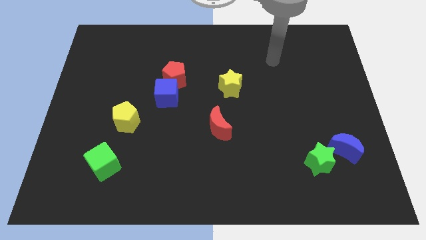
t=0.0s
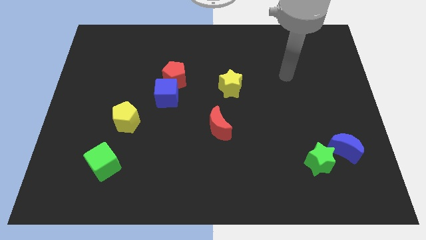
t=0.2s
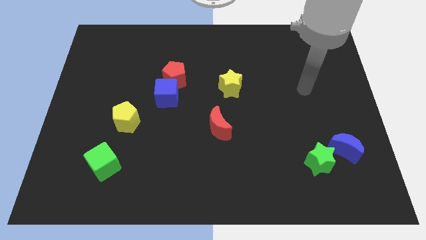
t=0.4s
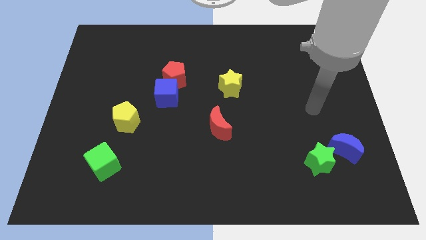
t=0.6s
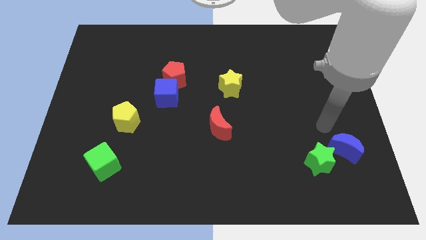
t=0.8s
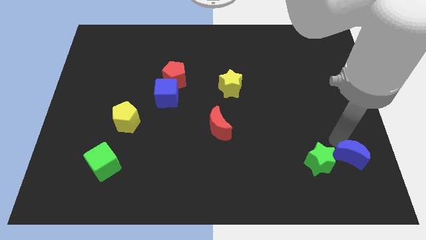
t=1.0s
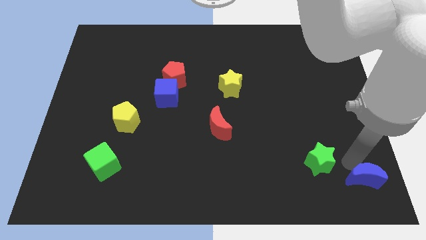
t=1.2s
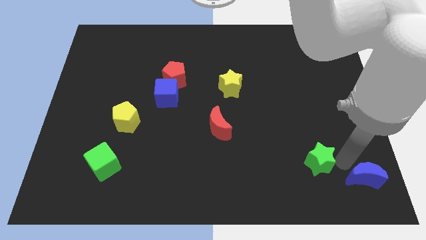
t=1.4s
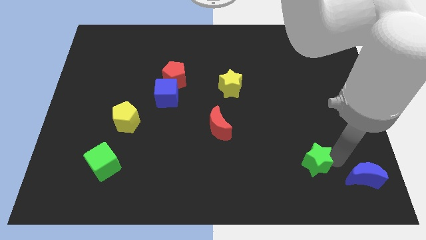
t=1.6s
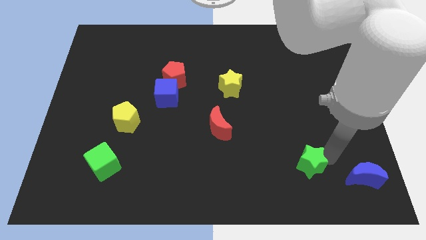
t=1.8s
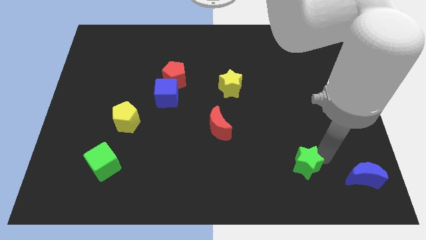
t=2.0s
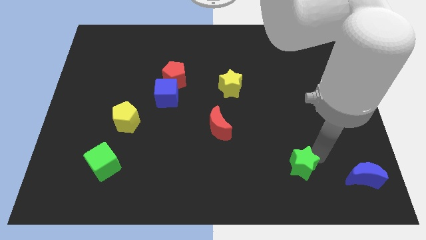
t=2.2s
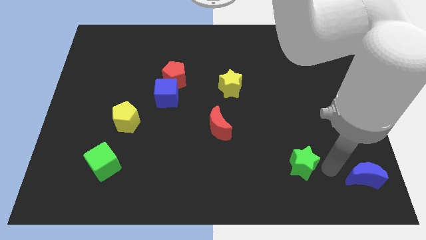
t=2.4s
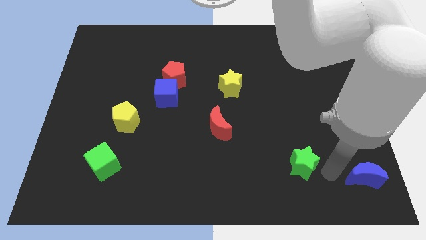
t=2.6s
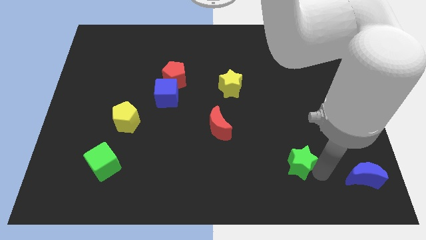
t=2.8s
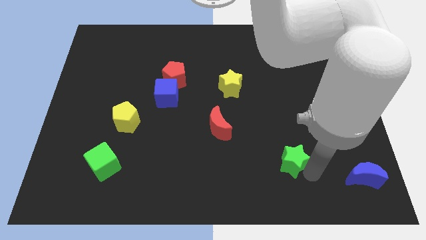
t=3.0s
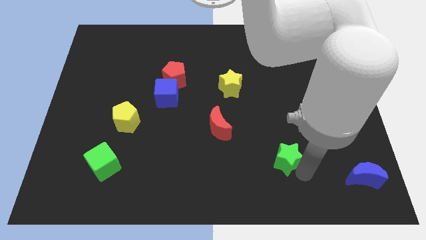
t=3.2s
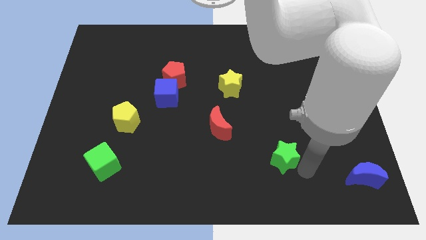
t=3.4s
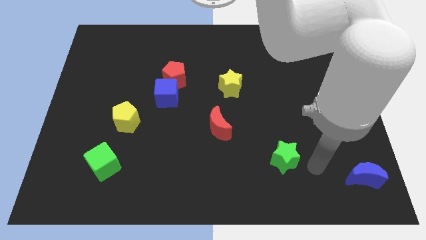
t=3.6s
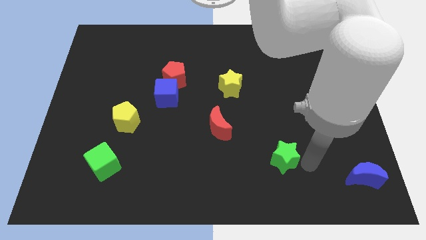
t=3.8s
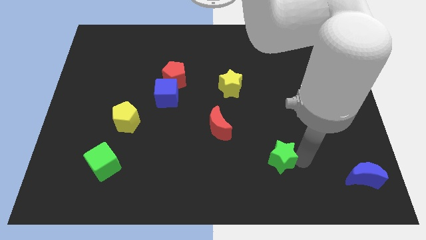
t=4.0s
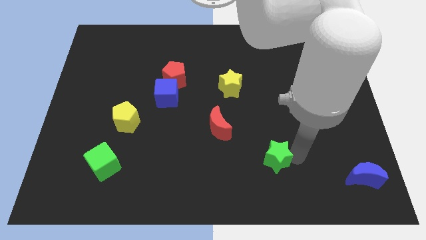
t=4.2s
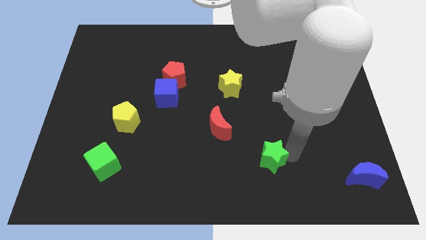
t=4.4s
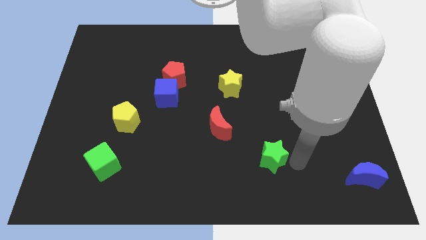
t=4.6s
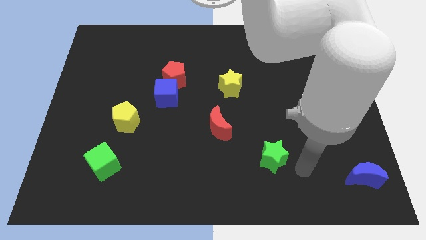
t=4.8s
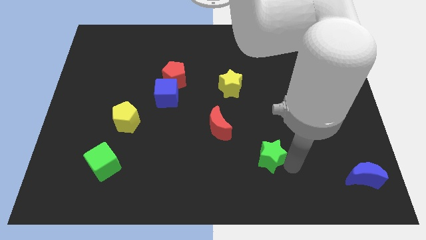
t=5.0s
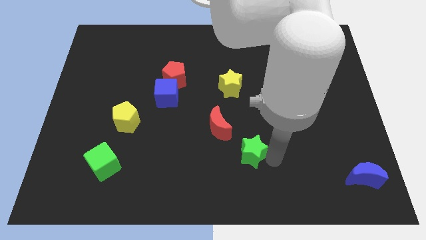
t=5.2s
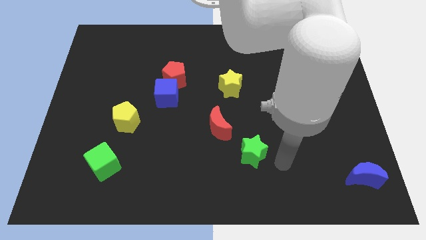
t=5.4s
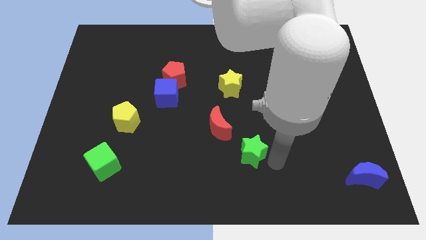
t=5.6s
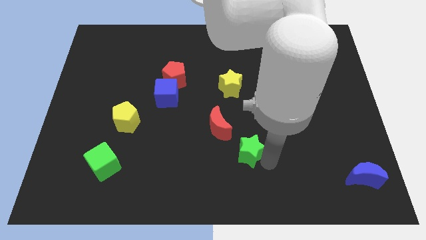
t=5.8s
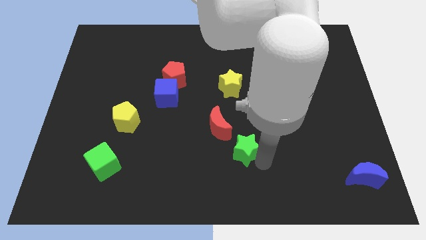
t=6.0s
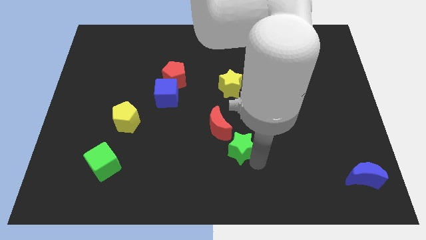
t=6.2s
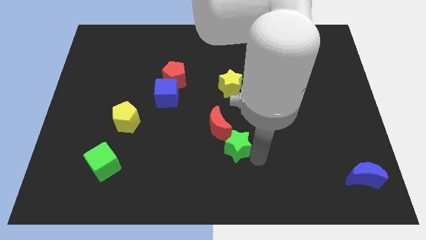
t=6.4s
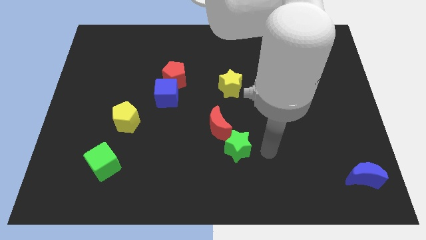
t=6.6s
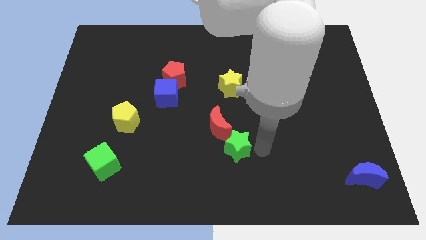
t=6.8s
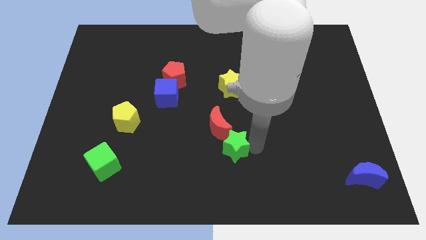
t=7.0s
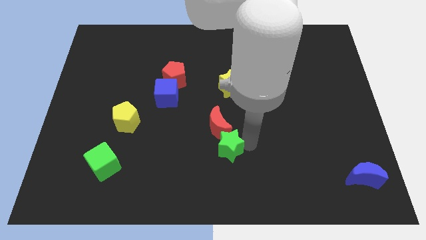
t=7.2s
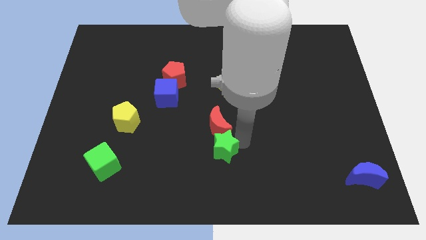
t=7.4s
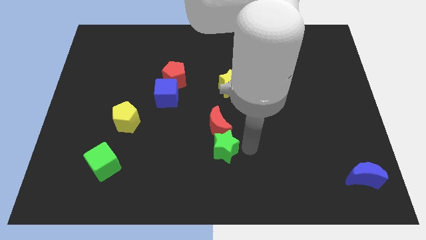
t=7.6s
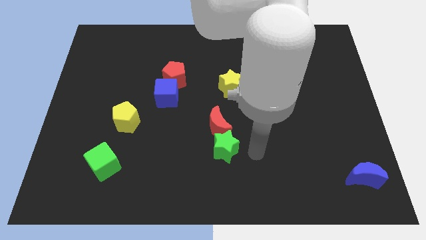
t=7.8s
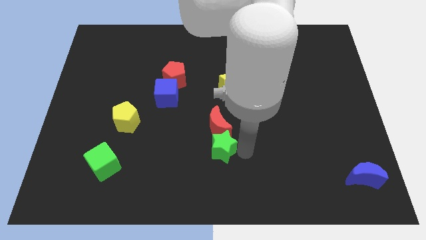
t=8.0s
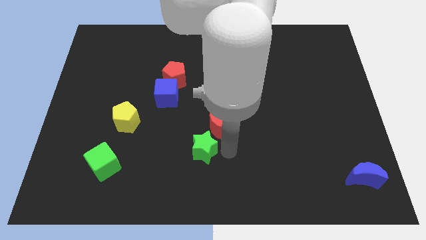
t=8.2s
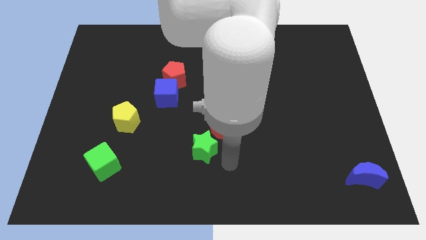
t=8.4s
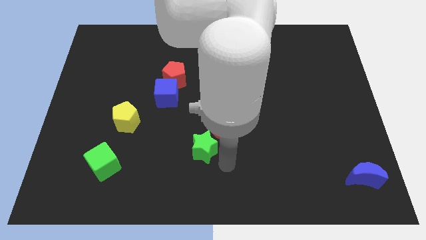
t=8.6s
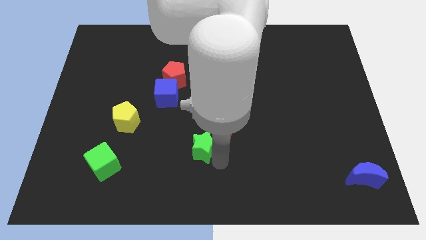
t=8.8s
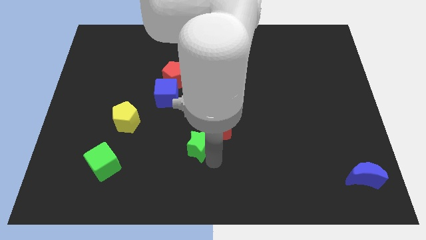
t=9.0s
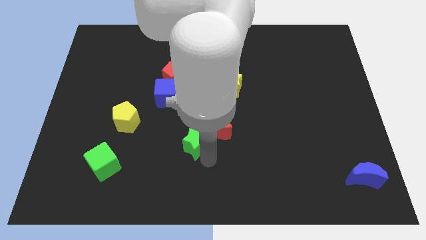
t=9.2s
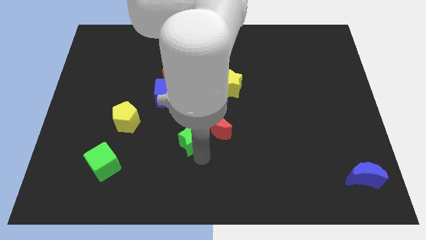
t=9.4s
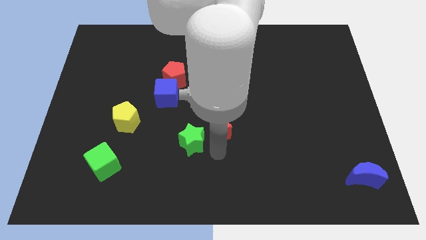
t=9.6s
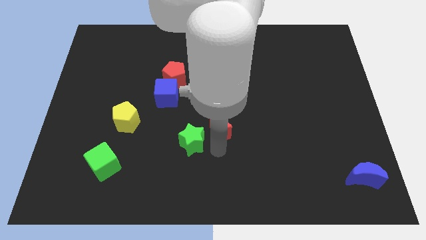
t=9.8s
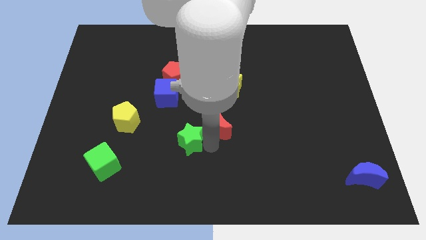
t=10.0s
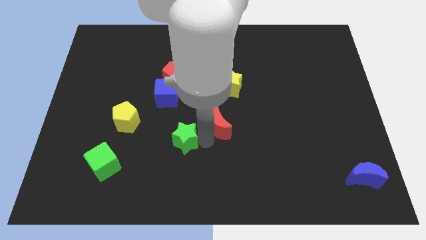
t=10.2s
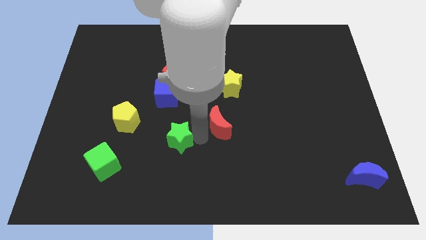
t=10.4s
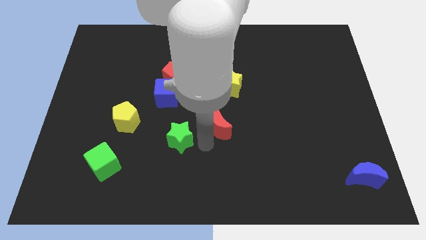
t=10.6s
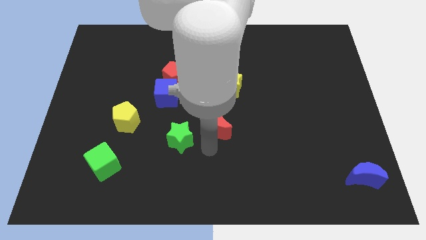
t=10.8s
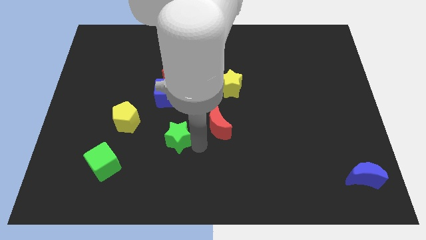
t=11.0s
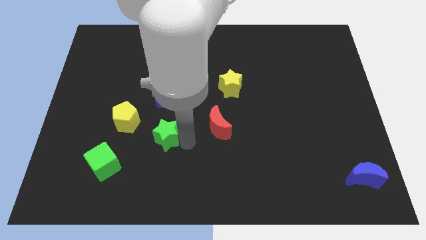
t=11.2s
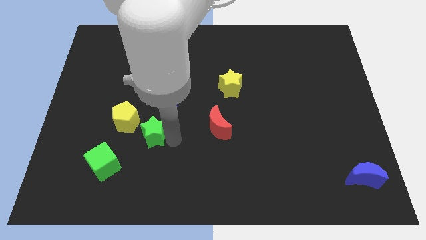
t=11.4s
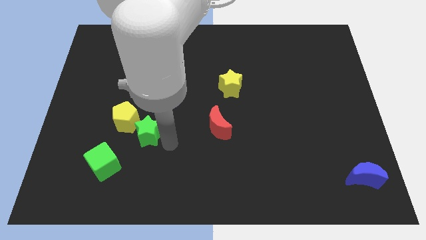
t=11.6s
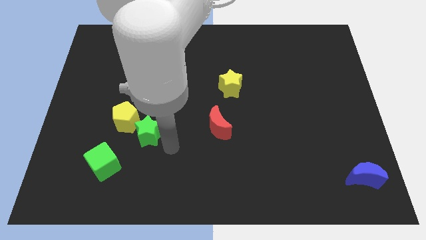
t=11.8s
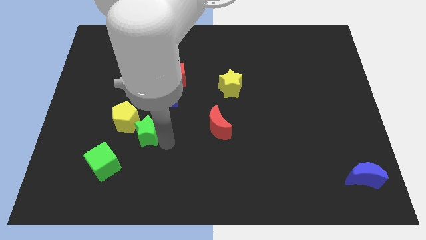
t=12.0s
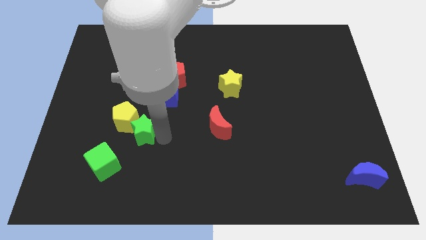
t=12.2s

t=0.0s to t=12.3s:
slide the green star towards the yellow pentagon

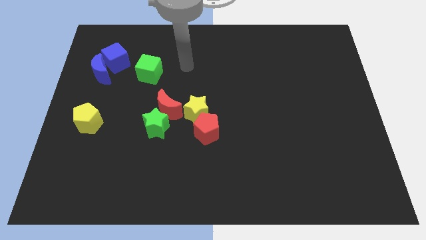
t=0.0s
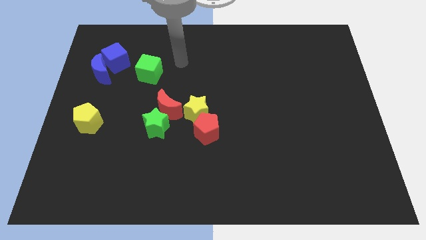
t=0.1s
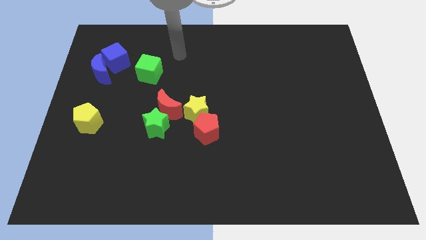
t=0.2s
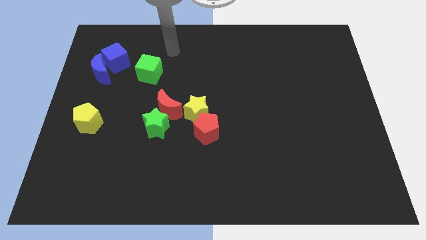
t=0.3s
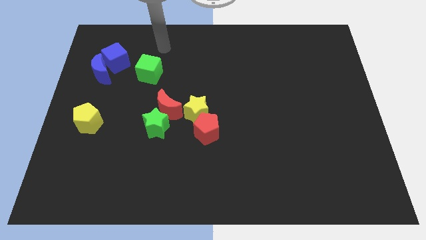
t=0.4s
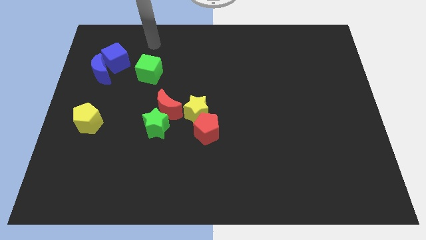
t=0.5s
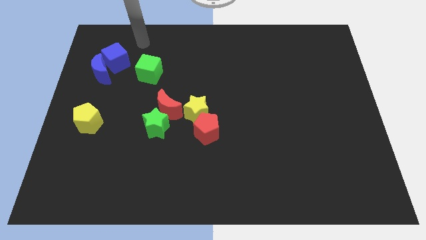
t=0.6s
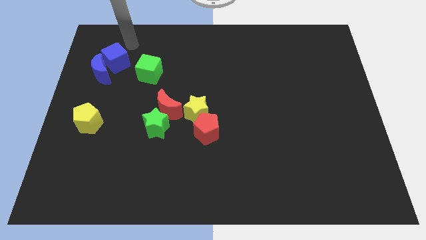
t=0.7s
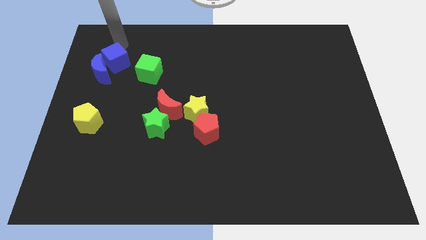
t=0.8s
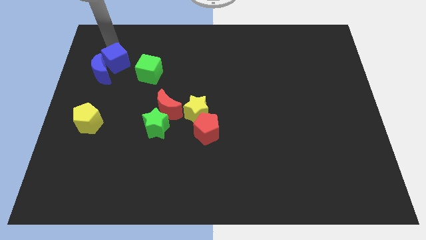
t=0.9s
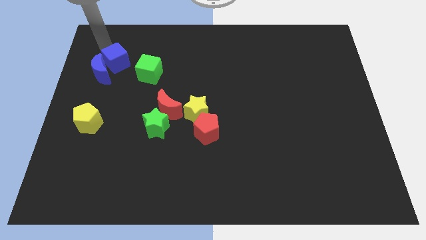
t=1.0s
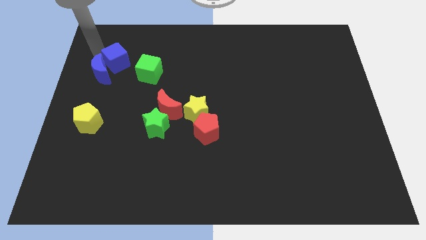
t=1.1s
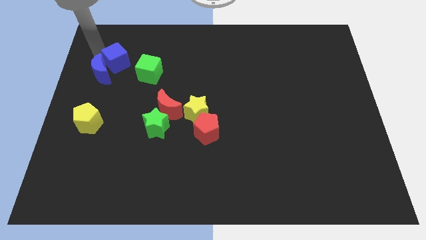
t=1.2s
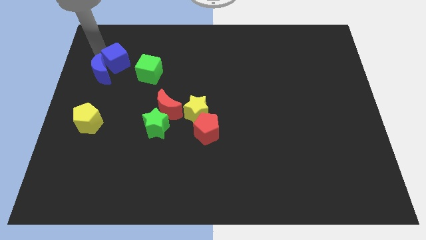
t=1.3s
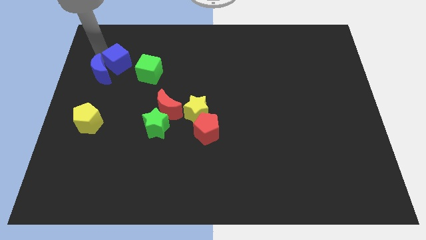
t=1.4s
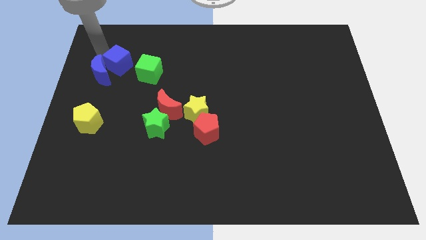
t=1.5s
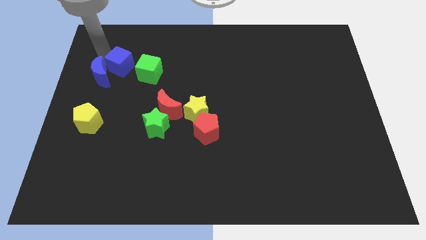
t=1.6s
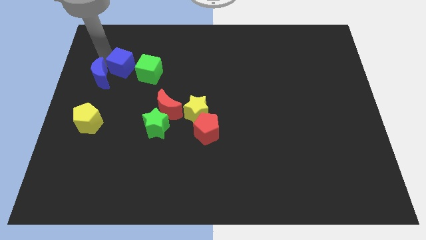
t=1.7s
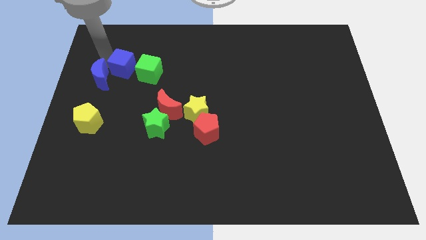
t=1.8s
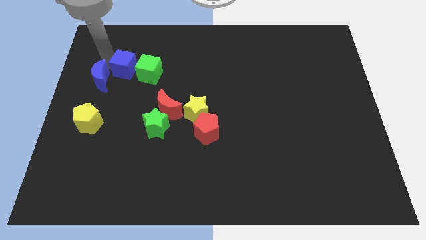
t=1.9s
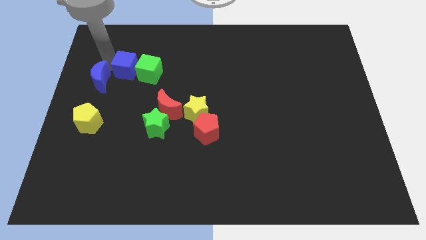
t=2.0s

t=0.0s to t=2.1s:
slide the blue cube close to the green cube
